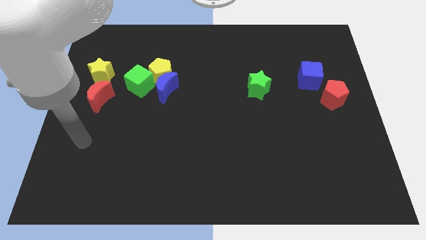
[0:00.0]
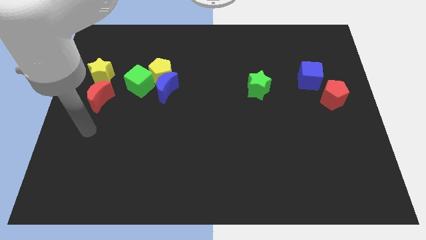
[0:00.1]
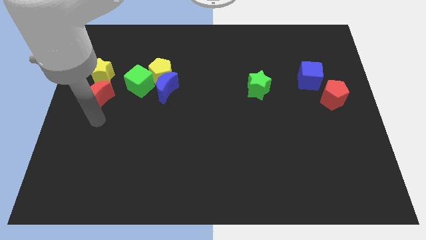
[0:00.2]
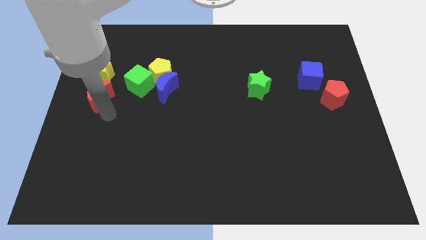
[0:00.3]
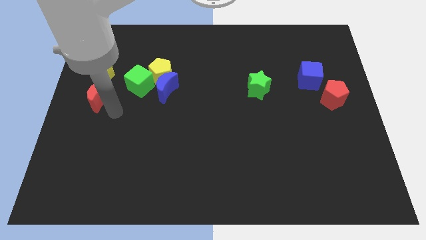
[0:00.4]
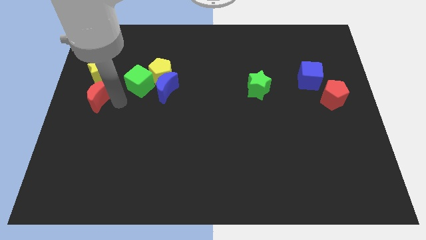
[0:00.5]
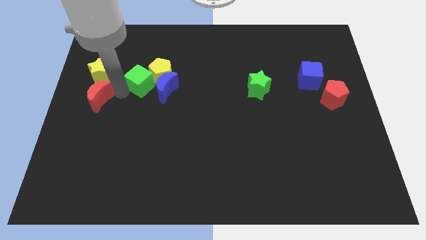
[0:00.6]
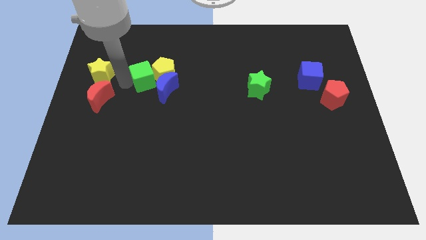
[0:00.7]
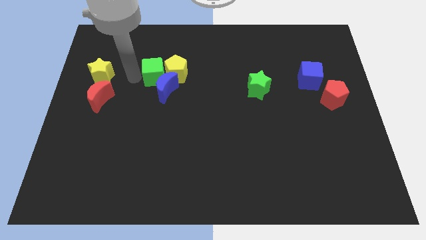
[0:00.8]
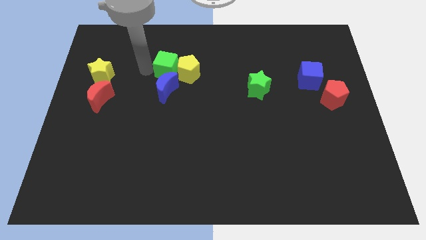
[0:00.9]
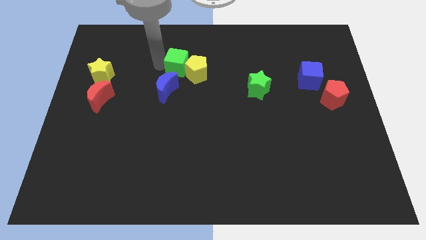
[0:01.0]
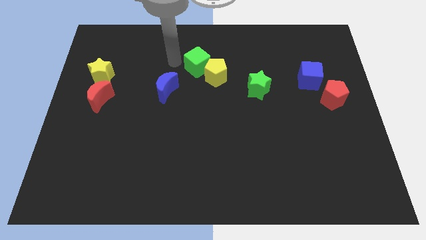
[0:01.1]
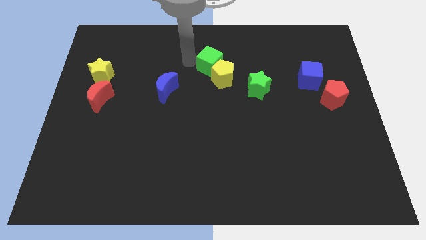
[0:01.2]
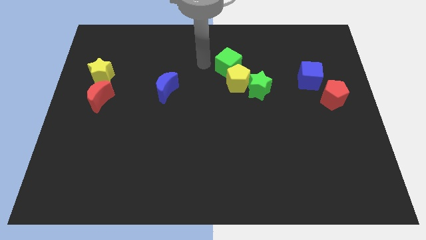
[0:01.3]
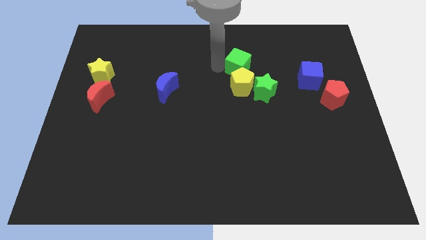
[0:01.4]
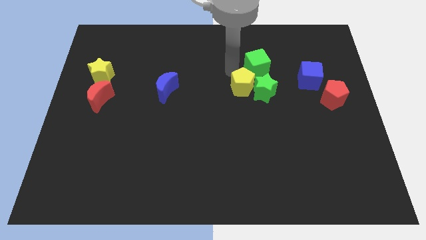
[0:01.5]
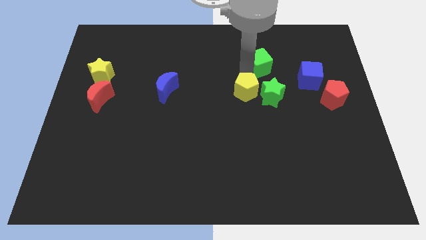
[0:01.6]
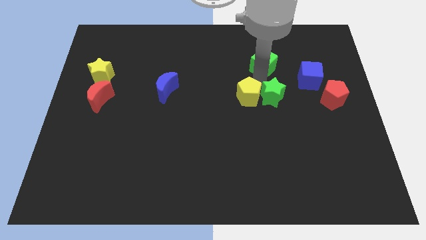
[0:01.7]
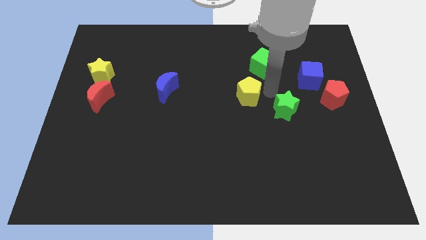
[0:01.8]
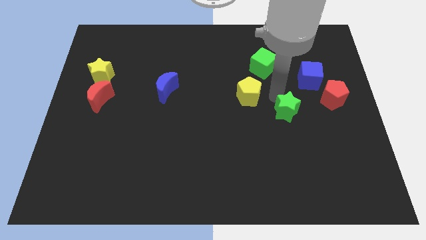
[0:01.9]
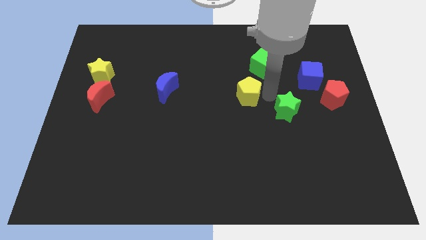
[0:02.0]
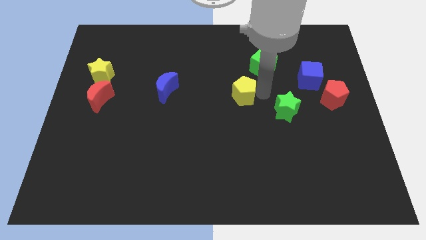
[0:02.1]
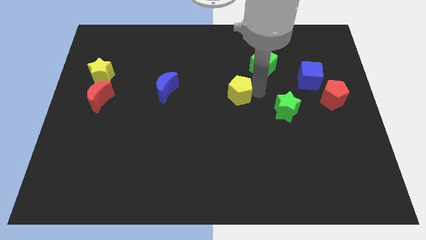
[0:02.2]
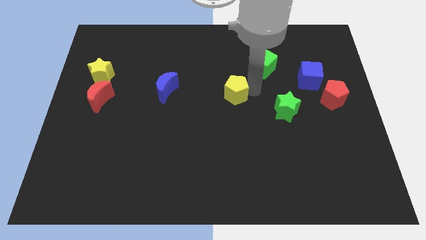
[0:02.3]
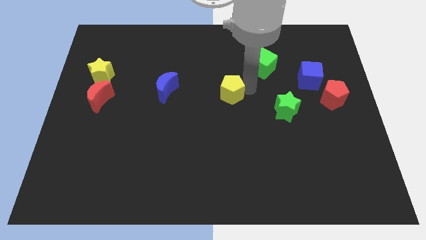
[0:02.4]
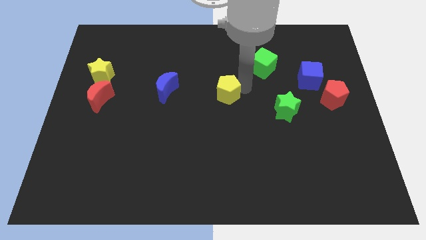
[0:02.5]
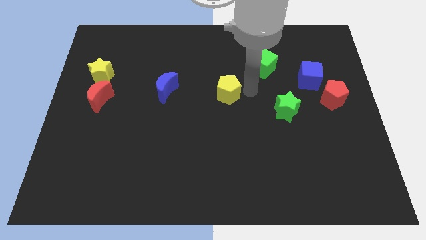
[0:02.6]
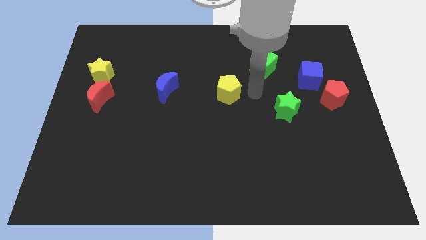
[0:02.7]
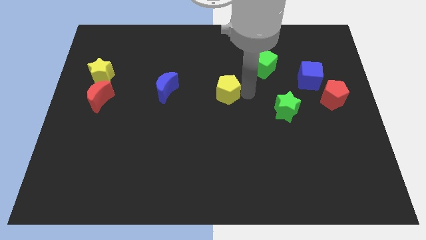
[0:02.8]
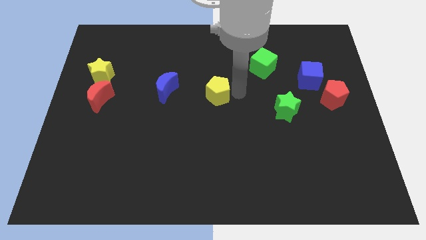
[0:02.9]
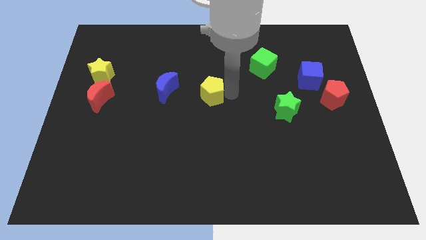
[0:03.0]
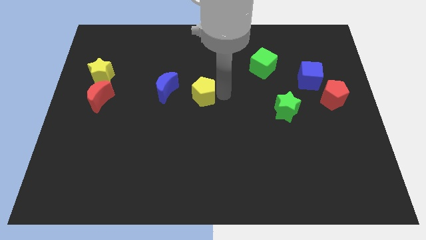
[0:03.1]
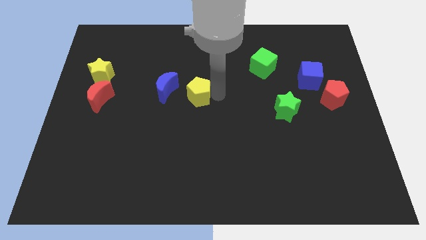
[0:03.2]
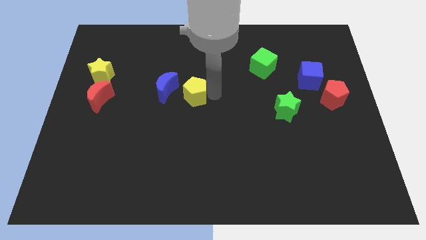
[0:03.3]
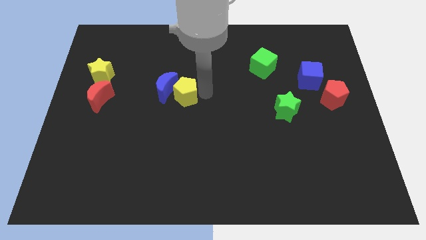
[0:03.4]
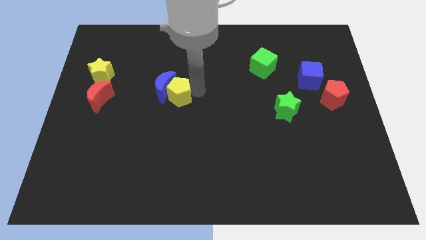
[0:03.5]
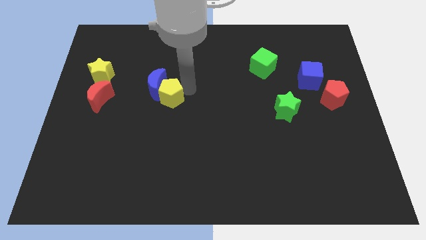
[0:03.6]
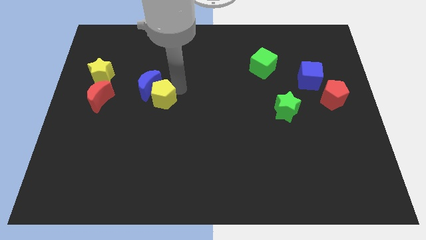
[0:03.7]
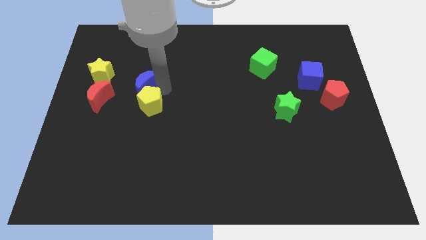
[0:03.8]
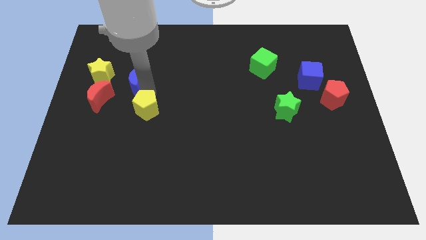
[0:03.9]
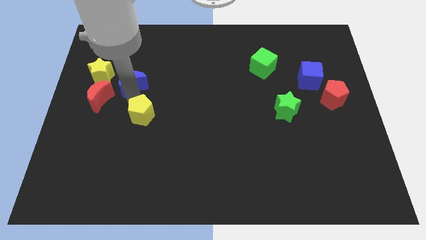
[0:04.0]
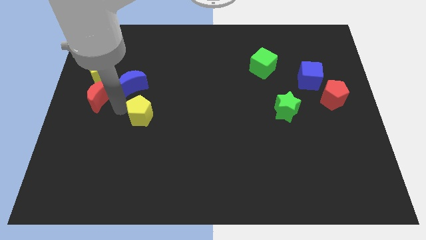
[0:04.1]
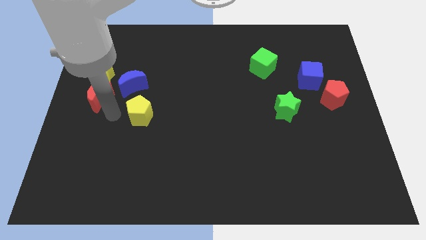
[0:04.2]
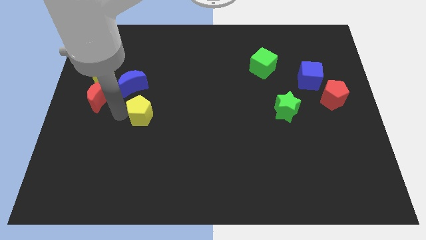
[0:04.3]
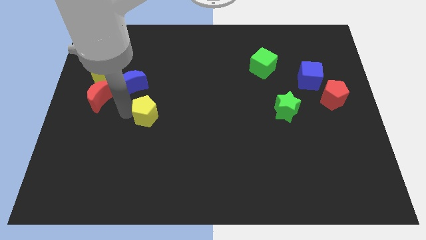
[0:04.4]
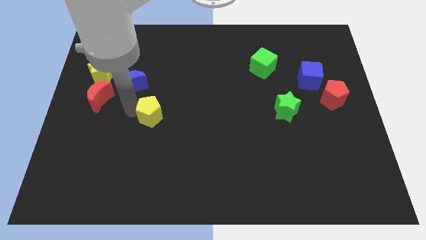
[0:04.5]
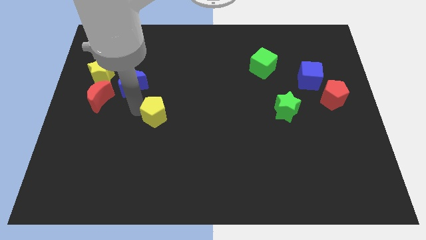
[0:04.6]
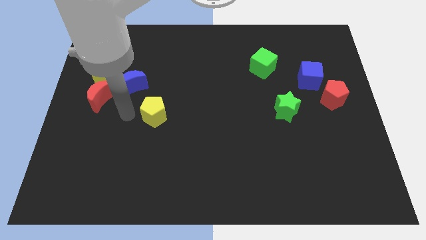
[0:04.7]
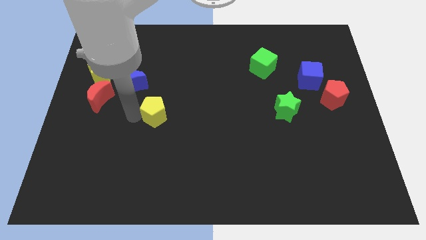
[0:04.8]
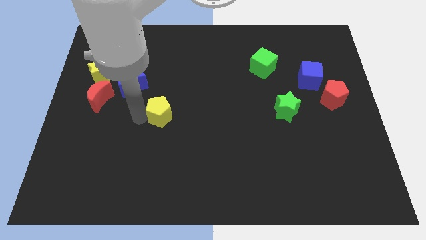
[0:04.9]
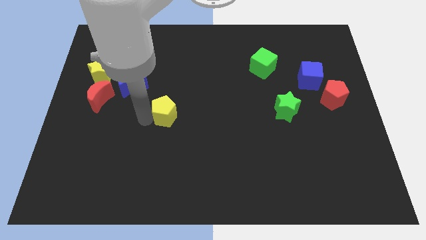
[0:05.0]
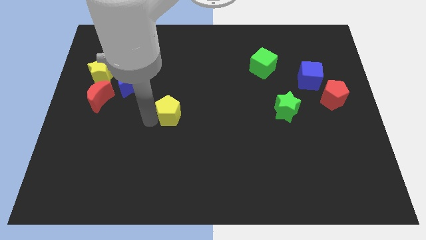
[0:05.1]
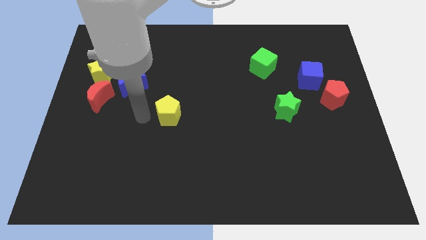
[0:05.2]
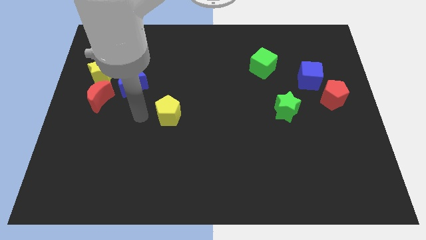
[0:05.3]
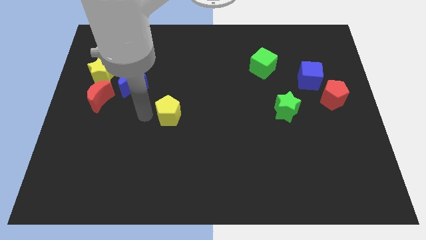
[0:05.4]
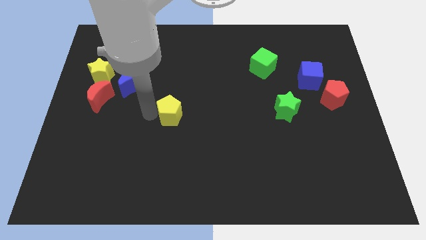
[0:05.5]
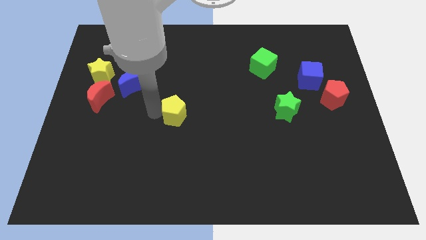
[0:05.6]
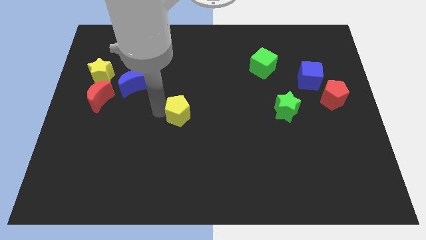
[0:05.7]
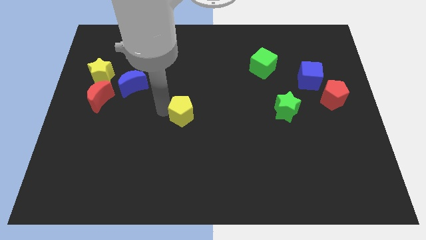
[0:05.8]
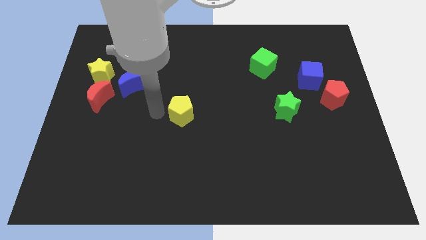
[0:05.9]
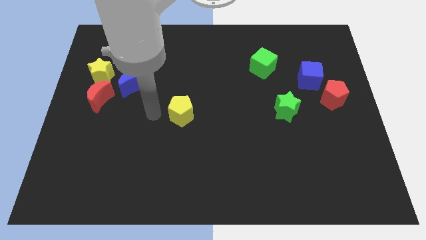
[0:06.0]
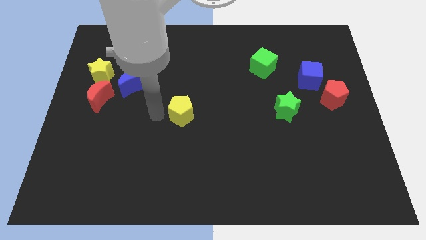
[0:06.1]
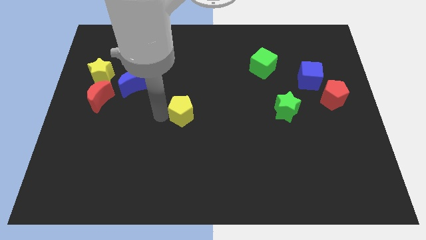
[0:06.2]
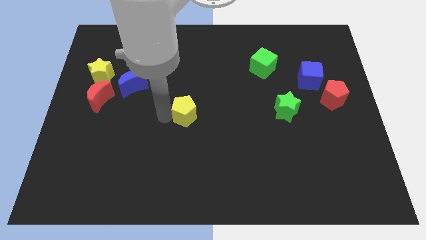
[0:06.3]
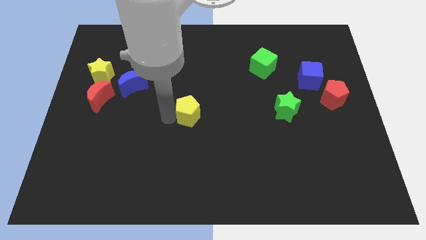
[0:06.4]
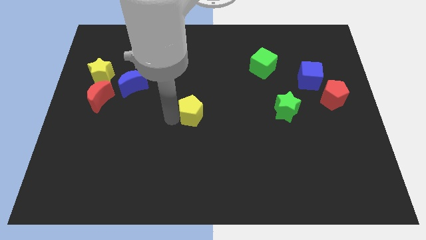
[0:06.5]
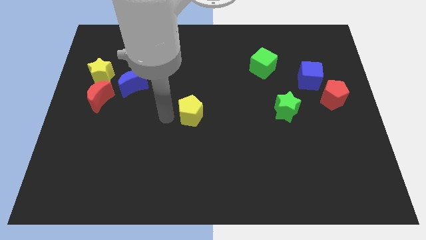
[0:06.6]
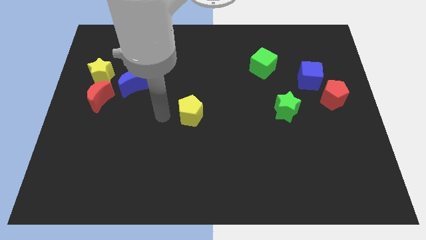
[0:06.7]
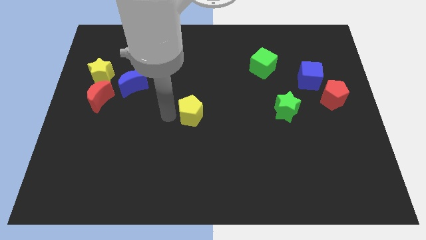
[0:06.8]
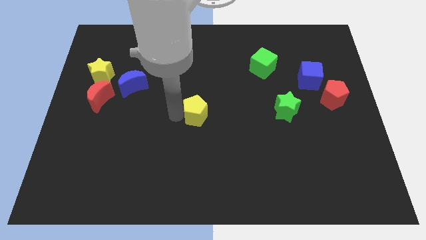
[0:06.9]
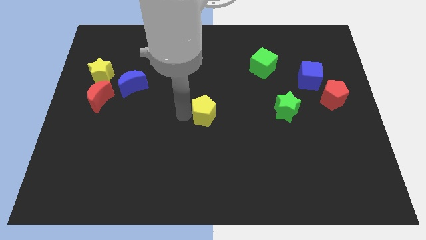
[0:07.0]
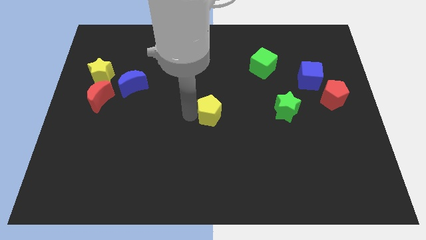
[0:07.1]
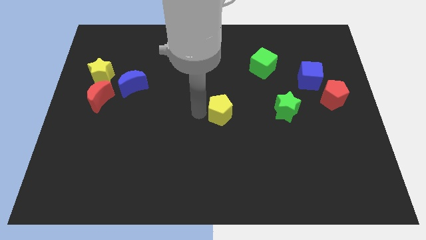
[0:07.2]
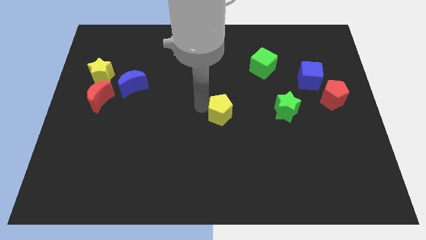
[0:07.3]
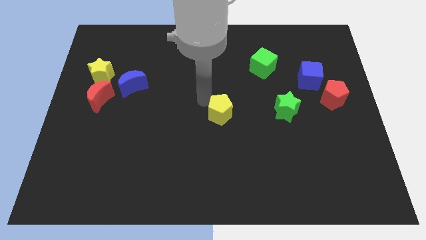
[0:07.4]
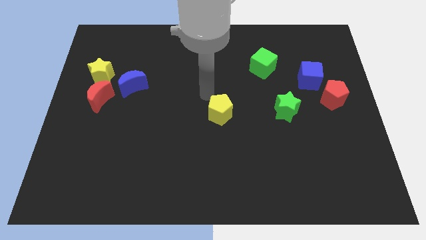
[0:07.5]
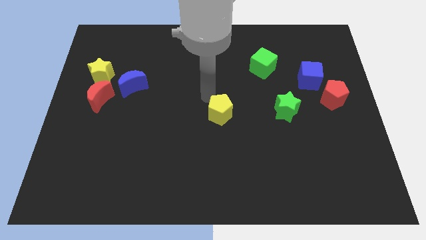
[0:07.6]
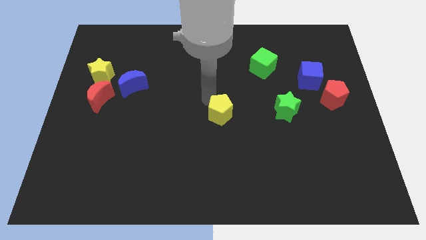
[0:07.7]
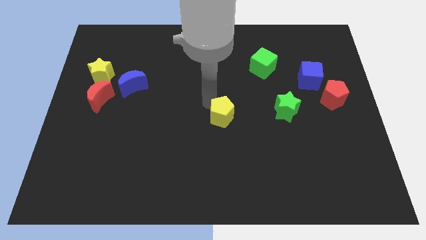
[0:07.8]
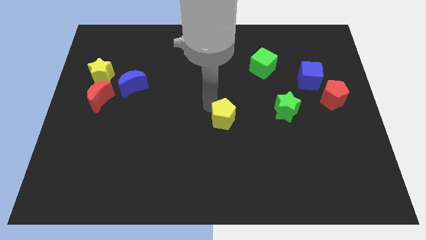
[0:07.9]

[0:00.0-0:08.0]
slide the yellow pentagon diagonally down and right

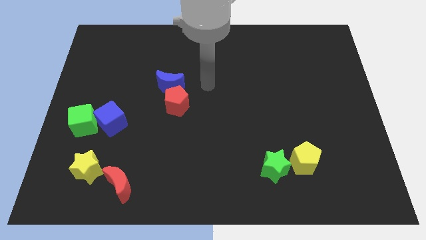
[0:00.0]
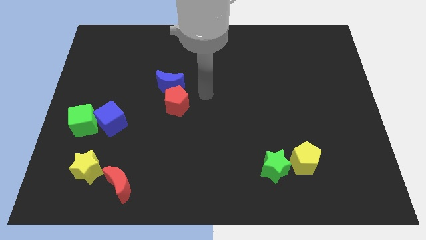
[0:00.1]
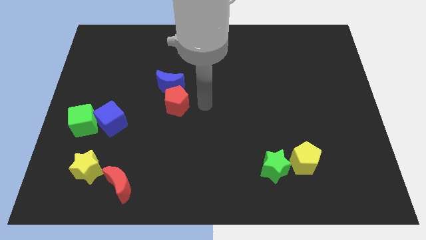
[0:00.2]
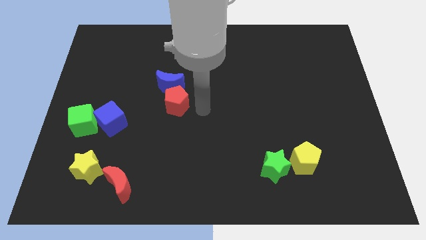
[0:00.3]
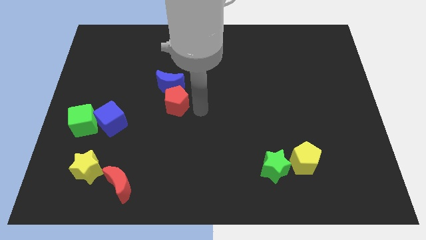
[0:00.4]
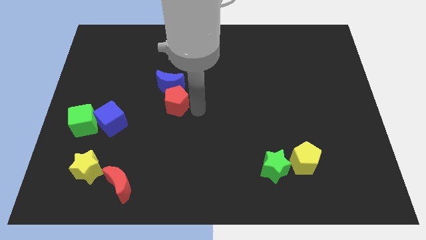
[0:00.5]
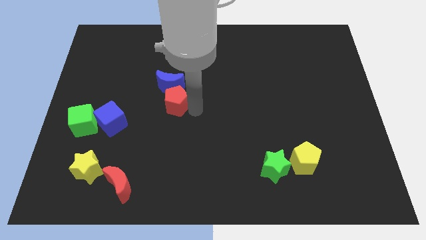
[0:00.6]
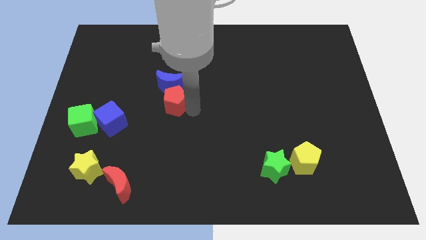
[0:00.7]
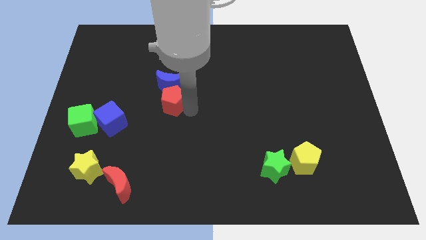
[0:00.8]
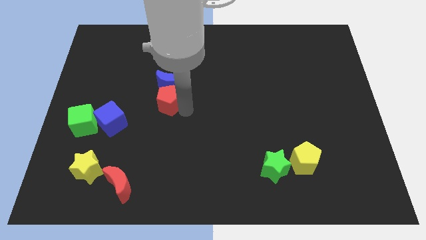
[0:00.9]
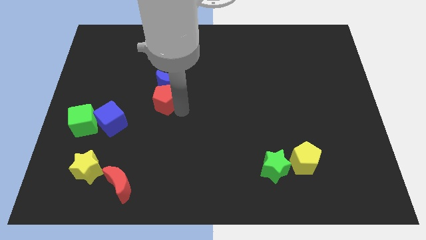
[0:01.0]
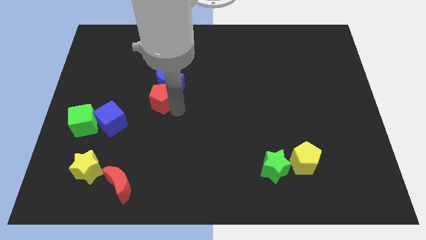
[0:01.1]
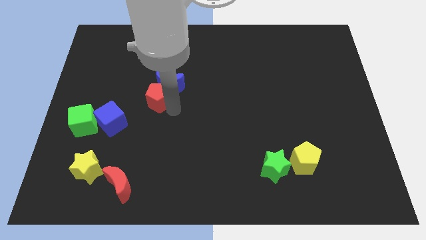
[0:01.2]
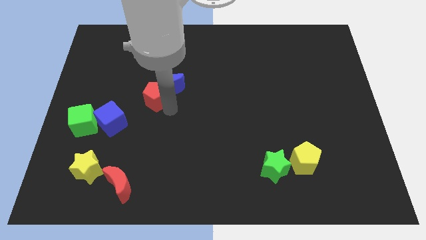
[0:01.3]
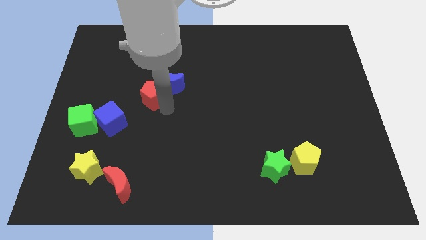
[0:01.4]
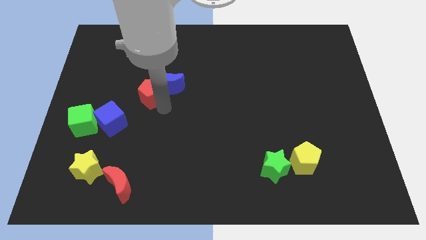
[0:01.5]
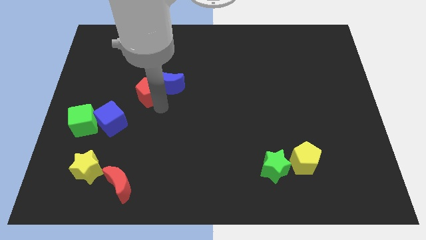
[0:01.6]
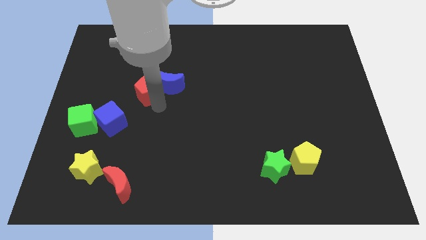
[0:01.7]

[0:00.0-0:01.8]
push the red pentagon a little up and then left
